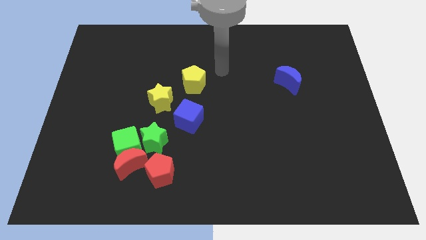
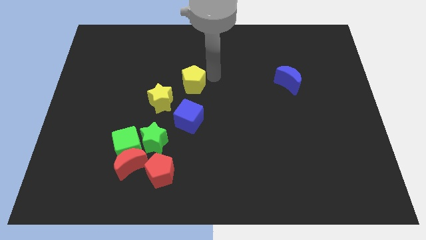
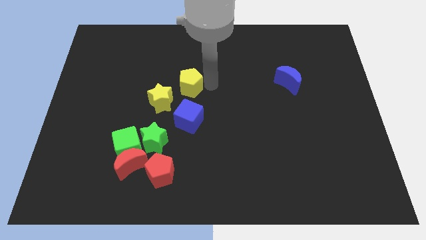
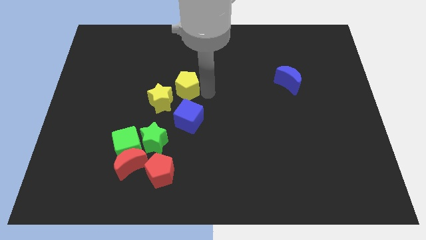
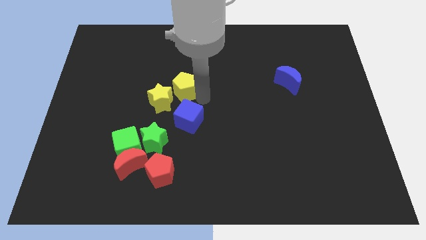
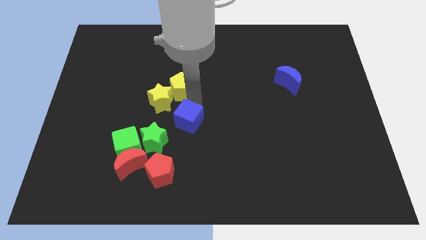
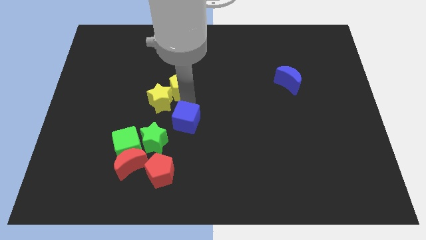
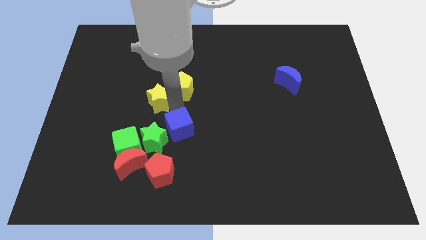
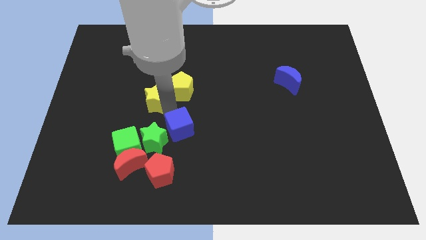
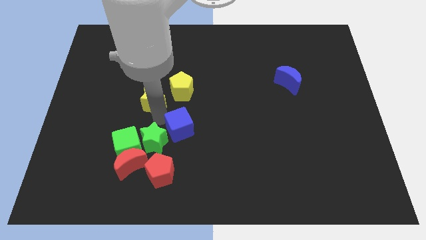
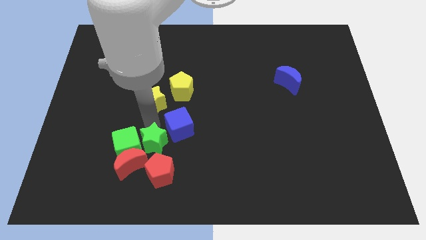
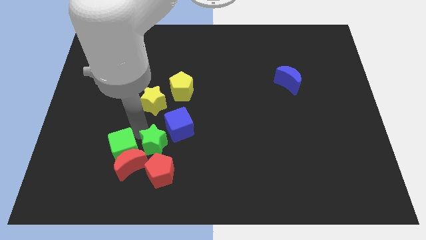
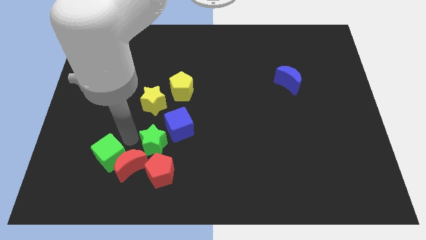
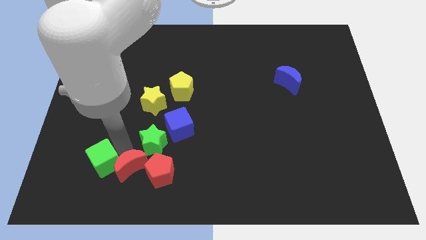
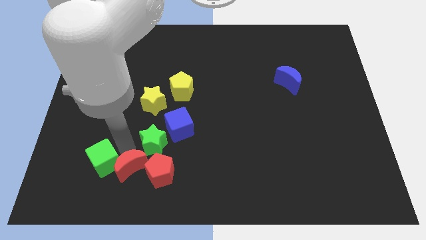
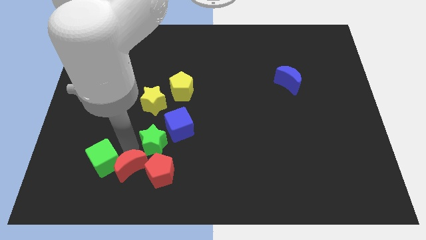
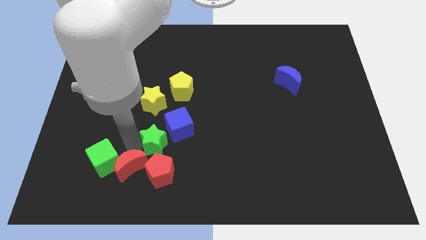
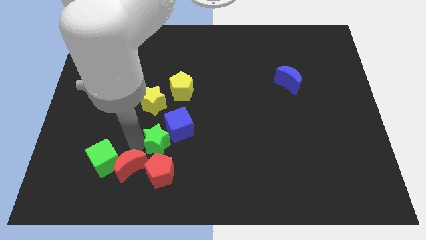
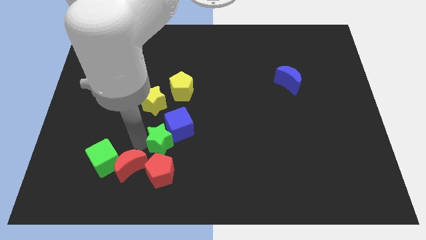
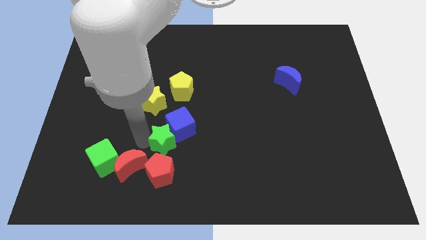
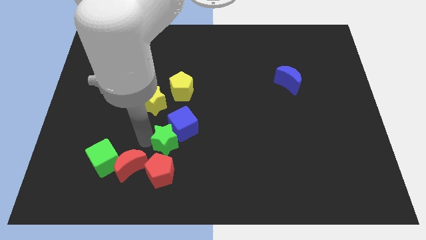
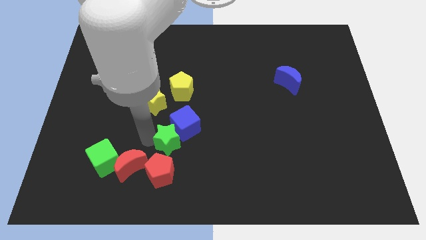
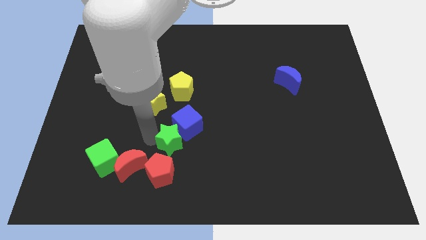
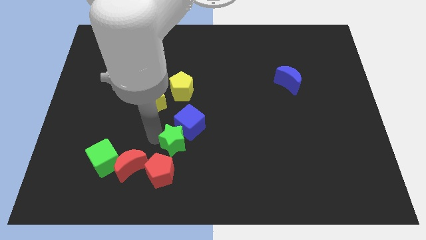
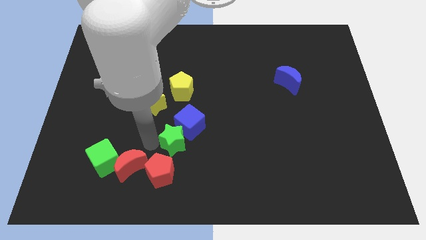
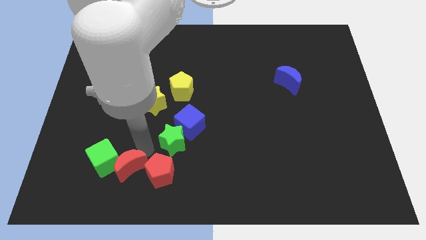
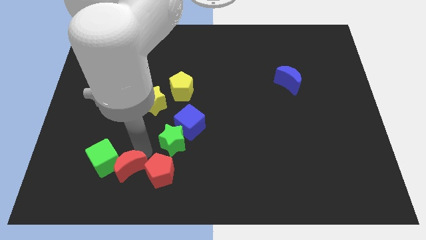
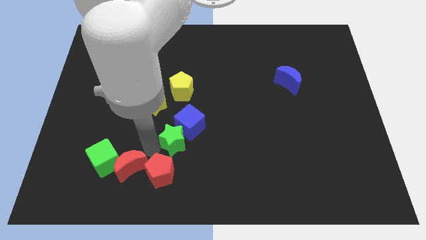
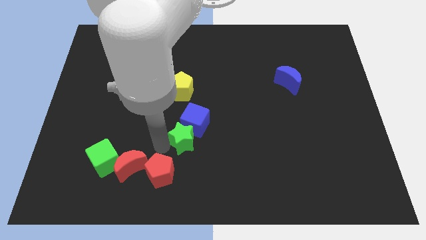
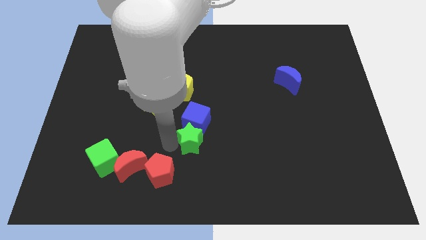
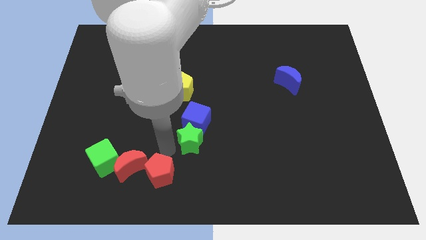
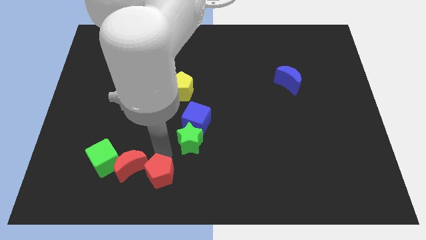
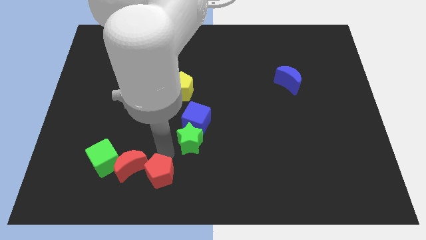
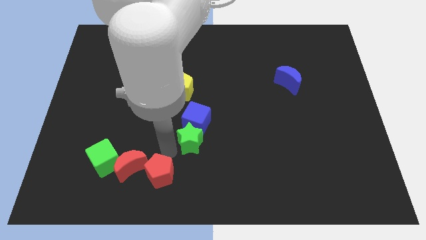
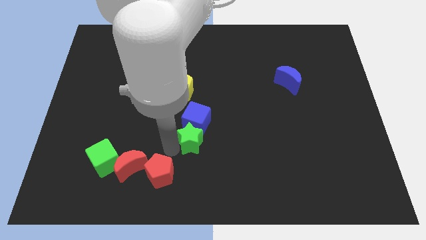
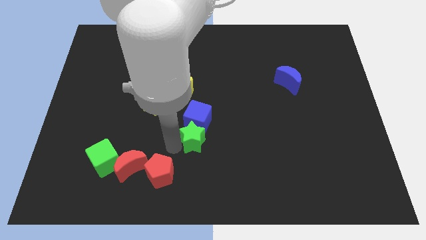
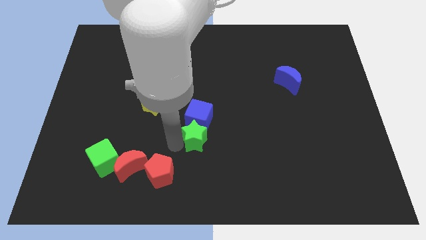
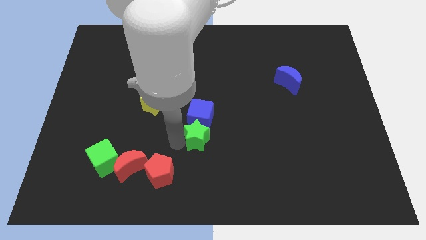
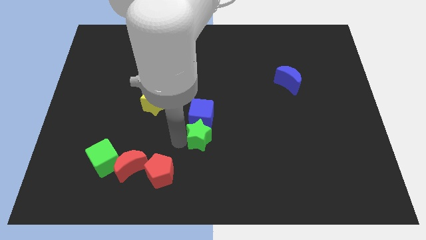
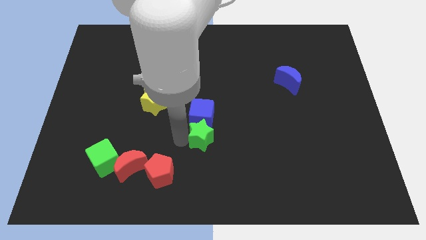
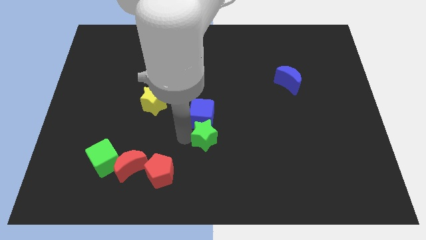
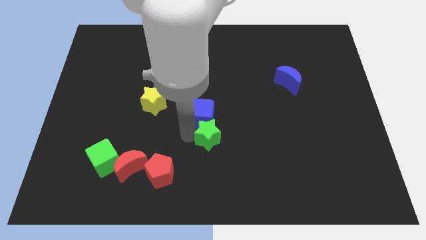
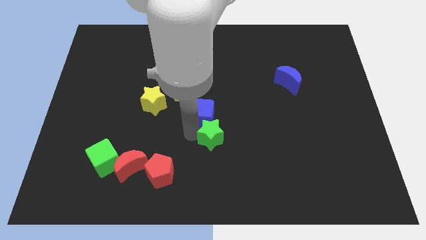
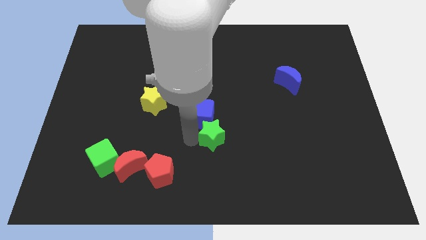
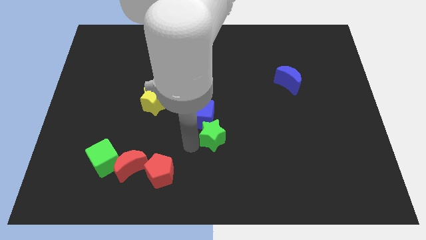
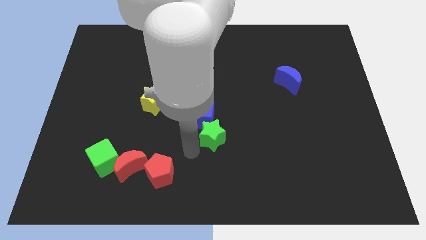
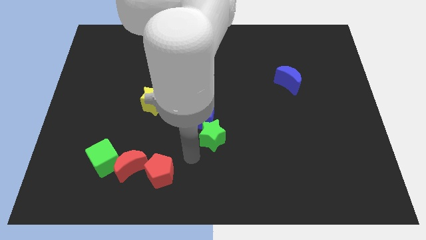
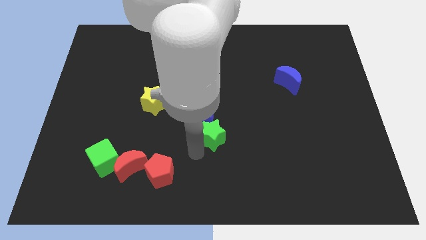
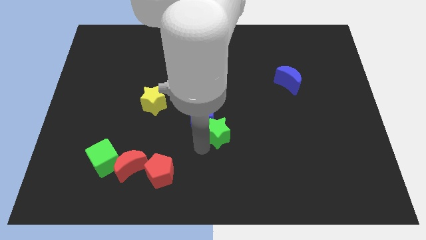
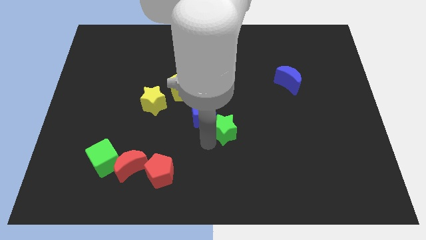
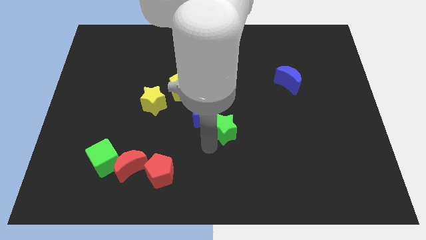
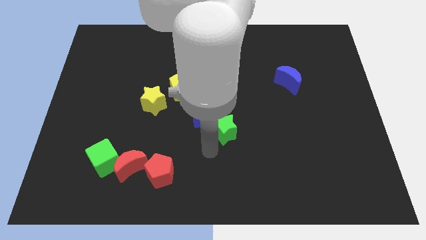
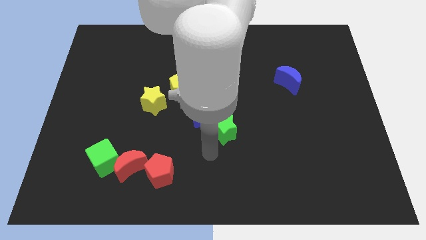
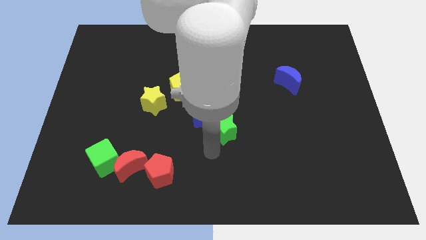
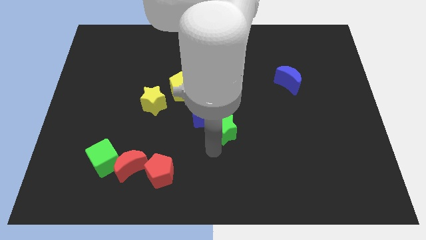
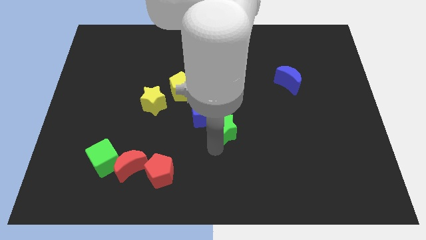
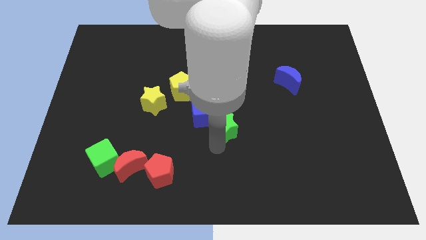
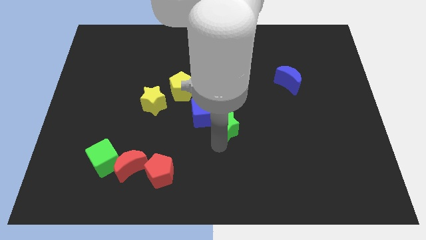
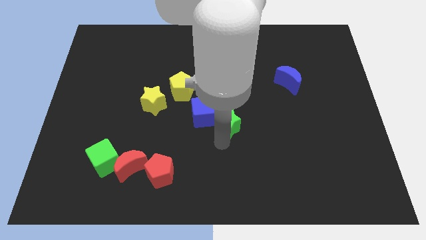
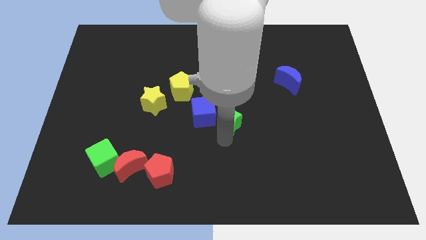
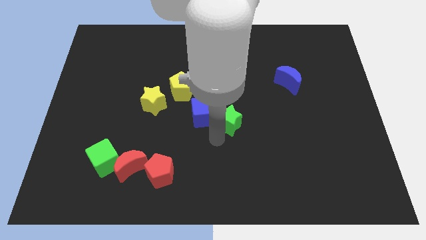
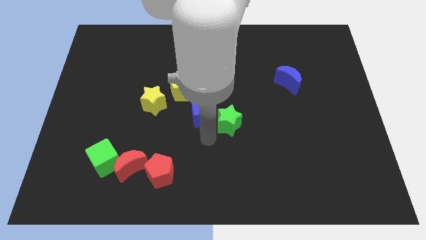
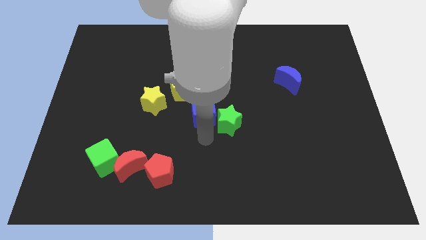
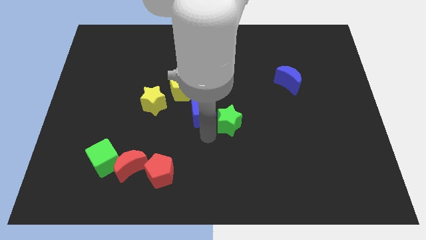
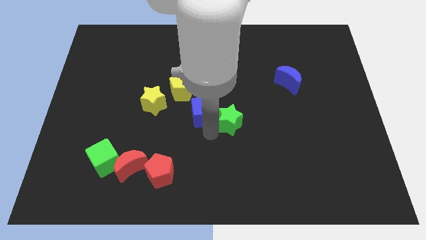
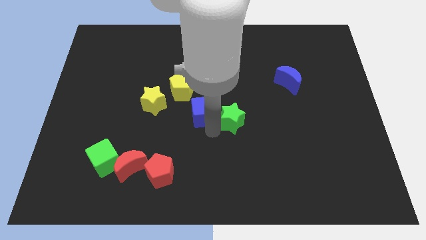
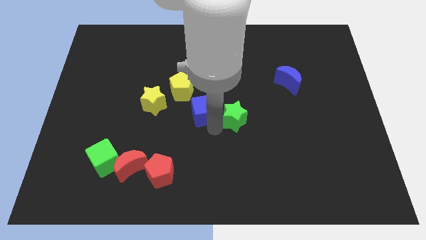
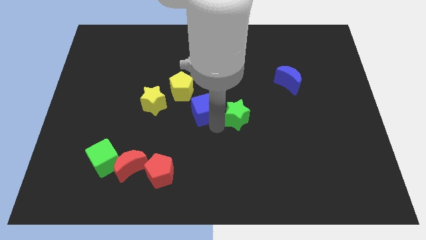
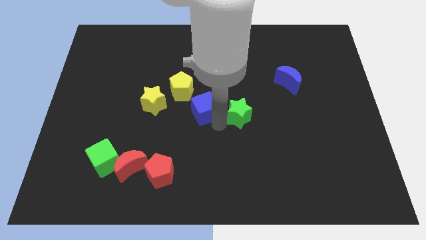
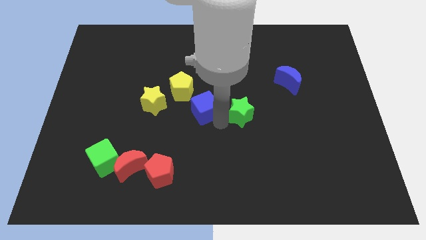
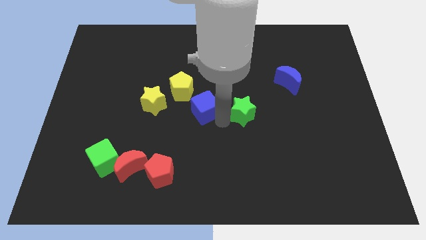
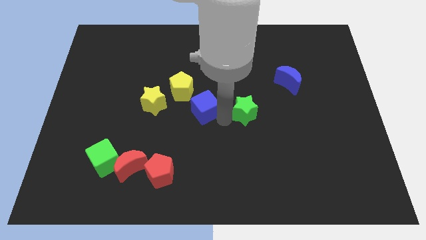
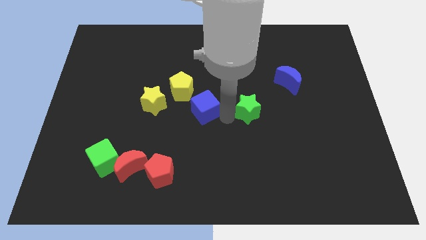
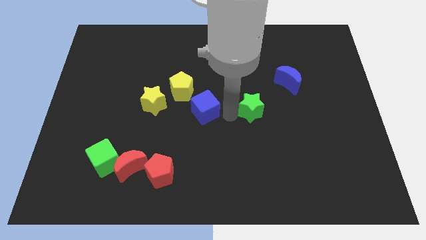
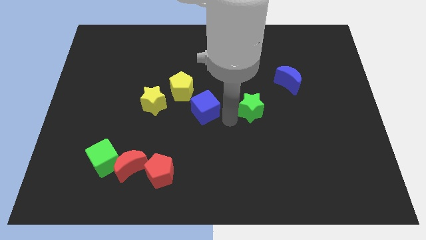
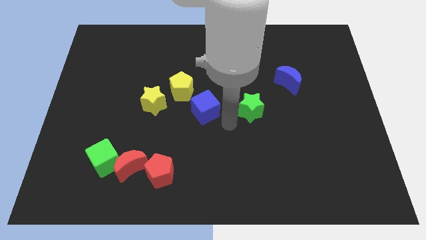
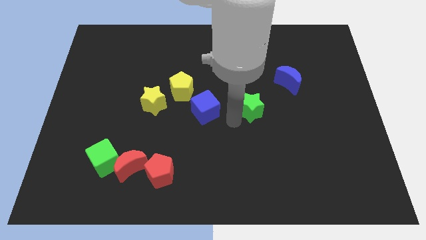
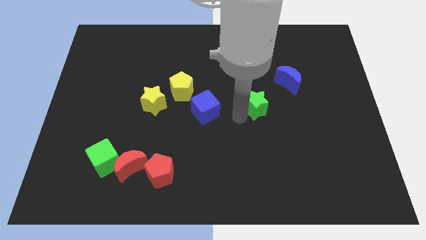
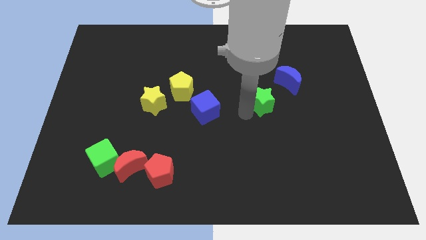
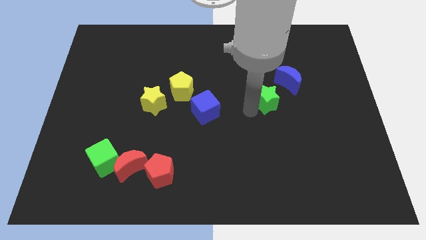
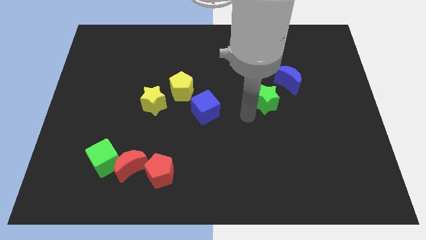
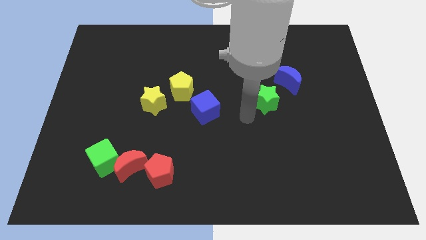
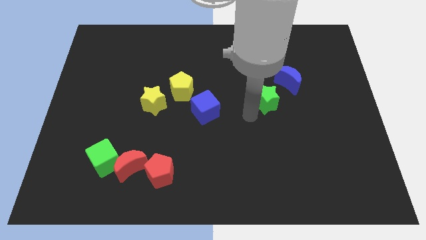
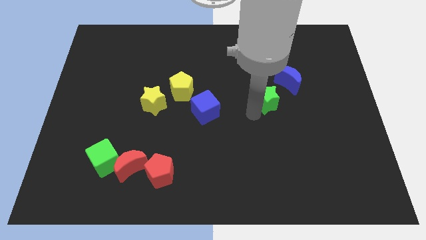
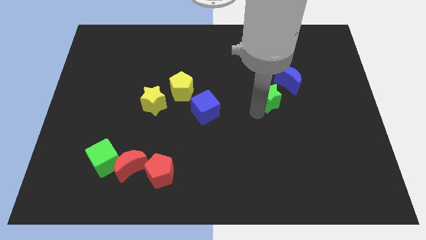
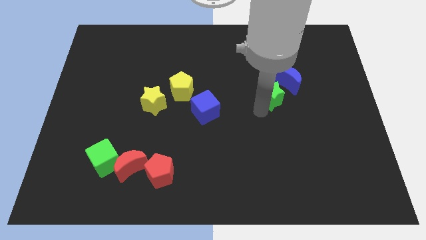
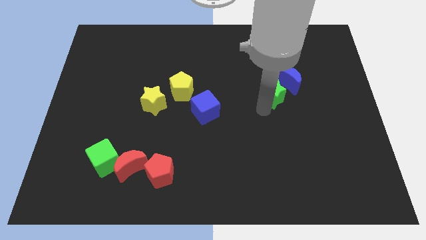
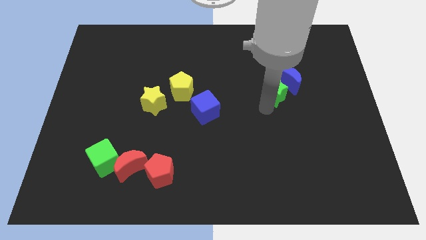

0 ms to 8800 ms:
push the green star close to the blue moon
